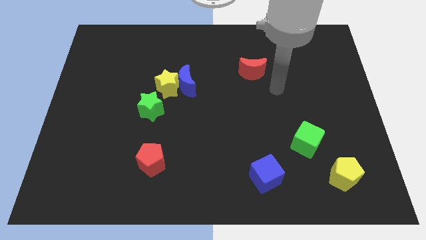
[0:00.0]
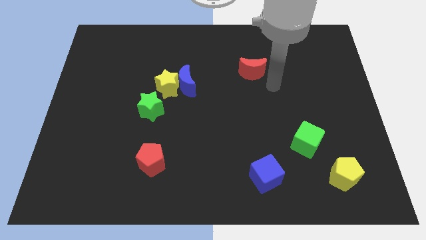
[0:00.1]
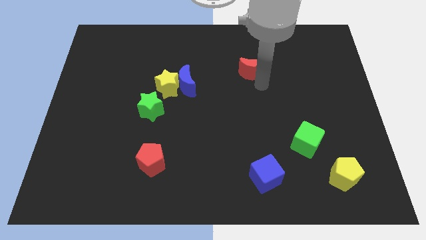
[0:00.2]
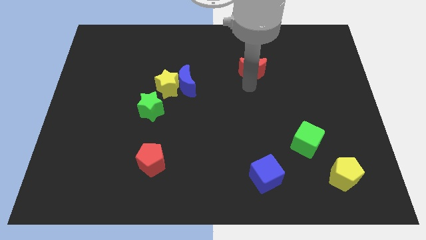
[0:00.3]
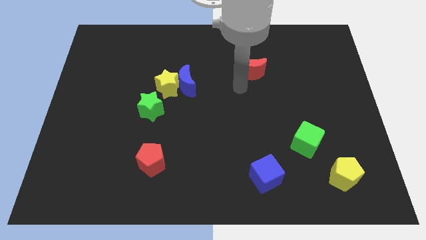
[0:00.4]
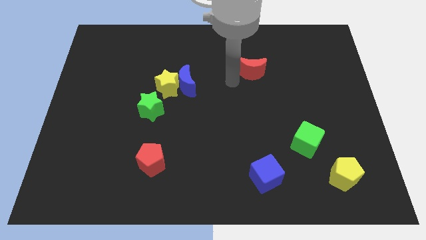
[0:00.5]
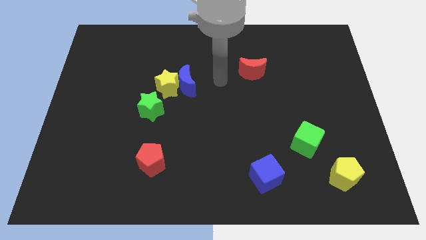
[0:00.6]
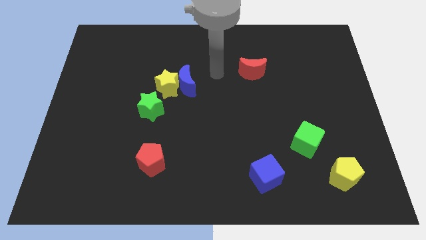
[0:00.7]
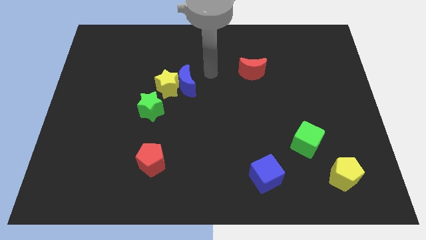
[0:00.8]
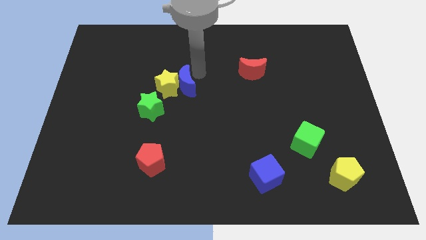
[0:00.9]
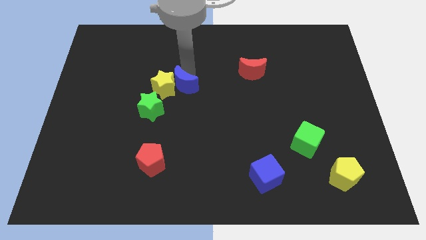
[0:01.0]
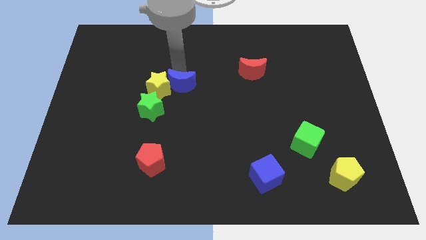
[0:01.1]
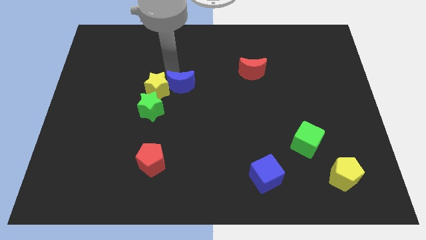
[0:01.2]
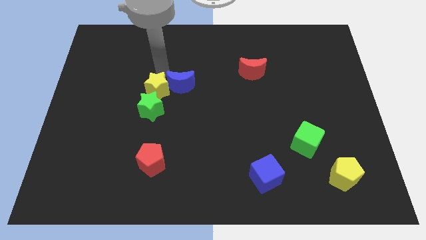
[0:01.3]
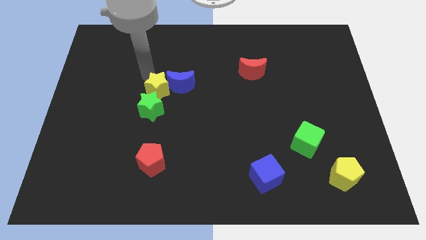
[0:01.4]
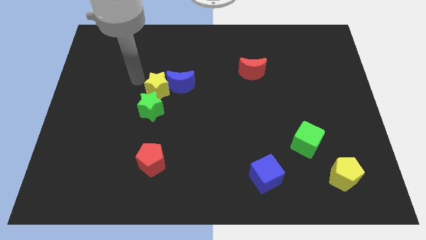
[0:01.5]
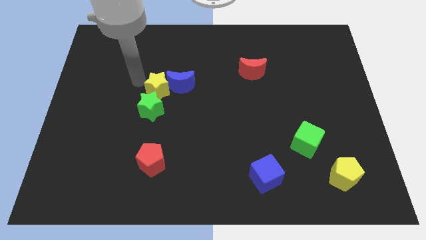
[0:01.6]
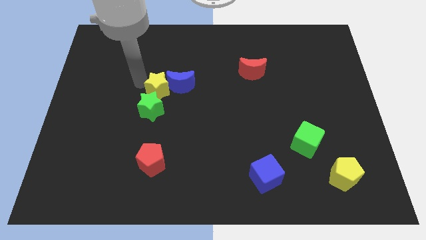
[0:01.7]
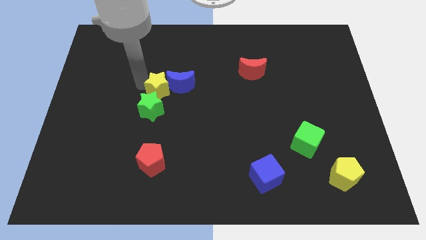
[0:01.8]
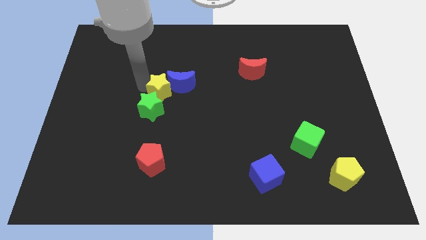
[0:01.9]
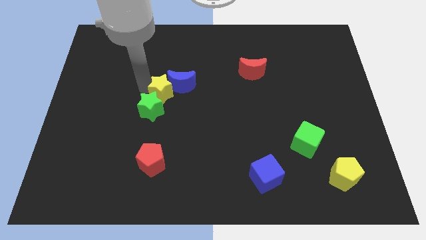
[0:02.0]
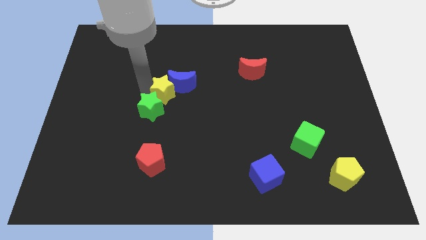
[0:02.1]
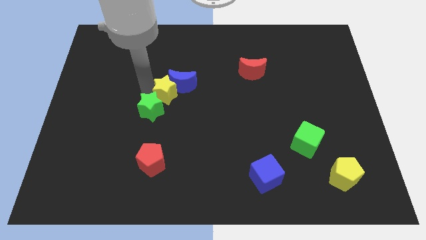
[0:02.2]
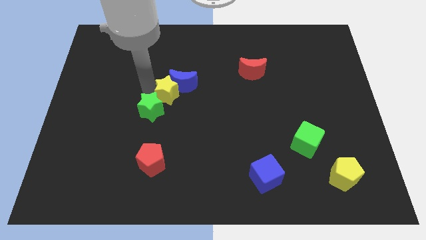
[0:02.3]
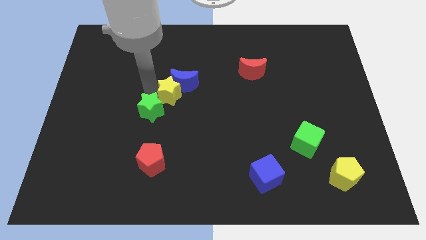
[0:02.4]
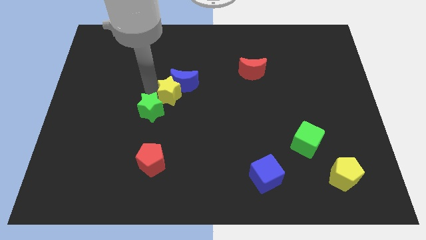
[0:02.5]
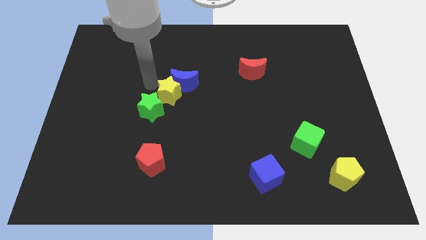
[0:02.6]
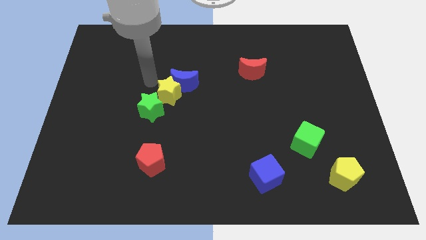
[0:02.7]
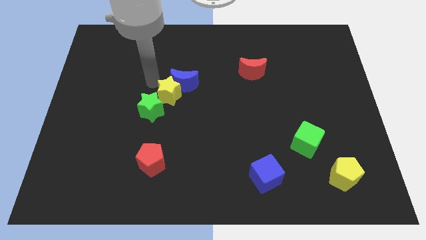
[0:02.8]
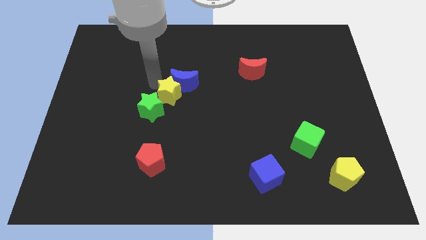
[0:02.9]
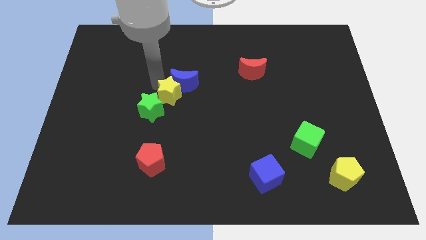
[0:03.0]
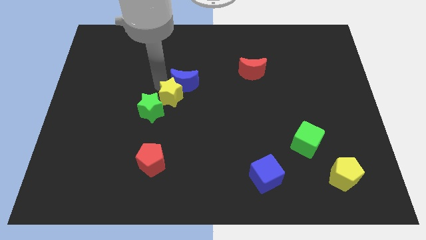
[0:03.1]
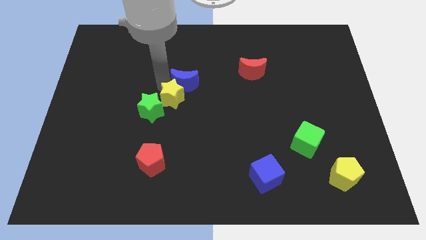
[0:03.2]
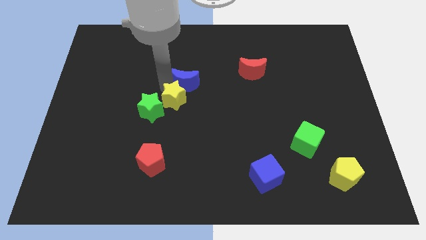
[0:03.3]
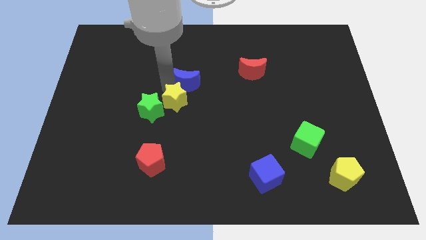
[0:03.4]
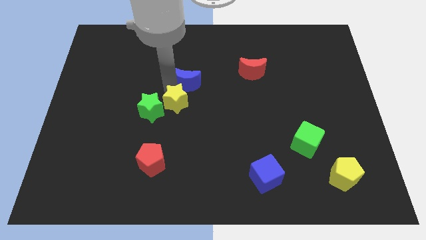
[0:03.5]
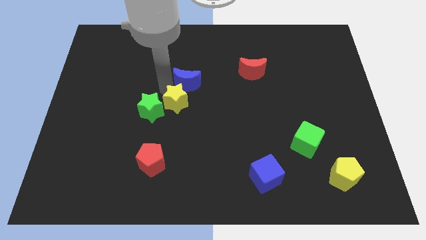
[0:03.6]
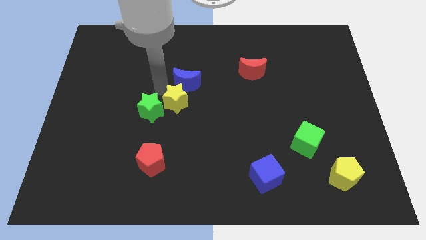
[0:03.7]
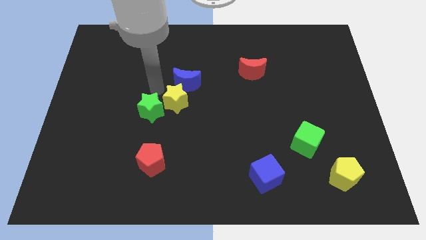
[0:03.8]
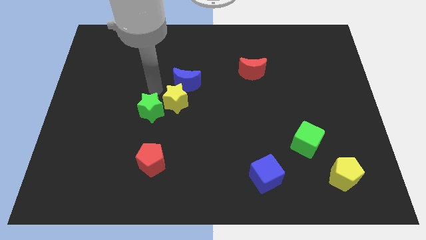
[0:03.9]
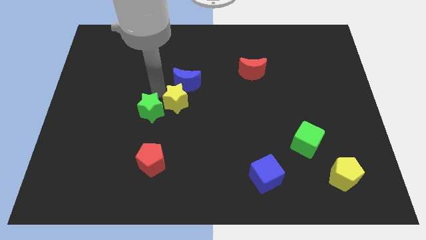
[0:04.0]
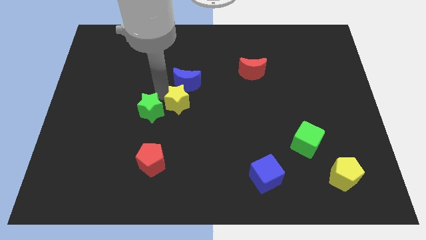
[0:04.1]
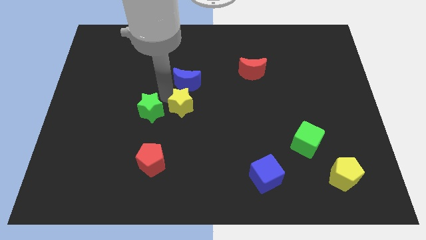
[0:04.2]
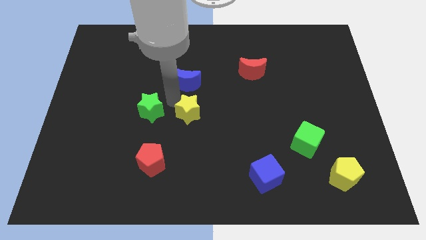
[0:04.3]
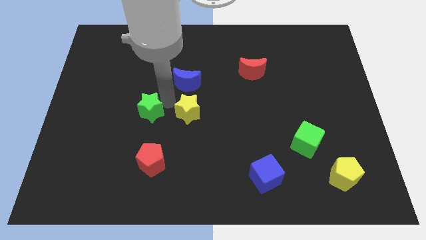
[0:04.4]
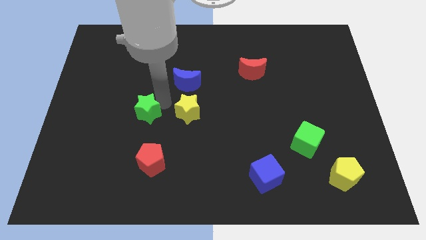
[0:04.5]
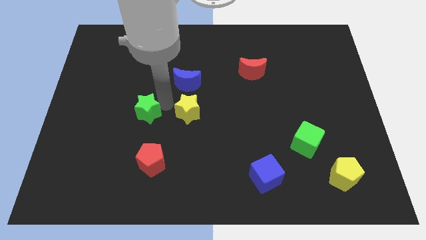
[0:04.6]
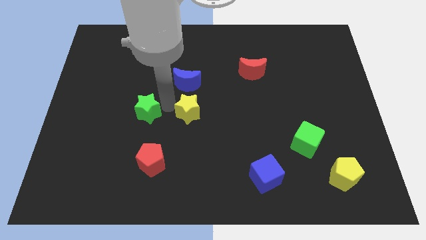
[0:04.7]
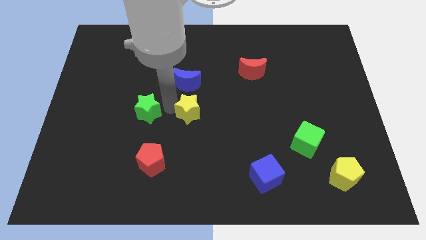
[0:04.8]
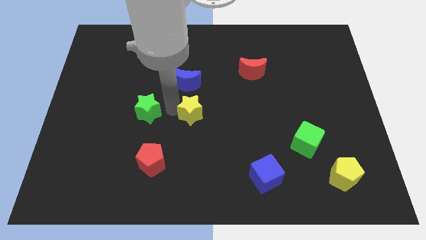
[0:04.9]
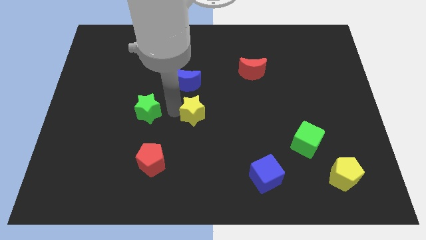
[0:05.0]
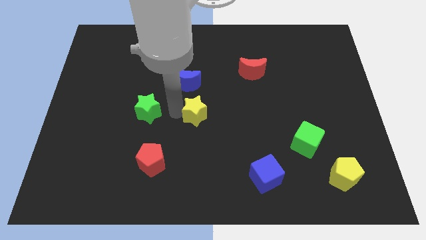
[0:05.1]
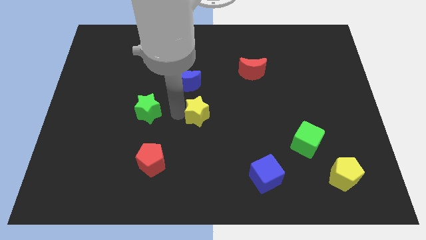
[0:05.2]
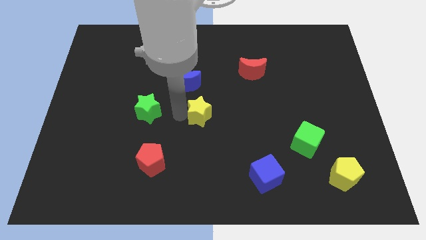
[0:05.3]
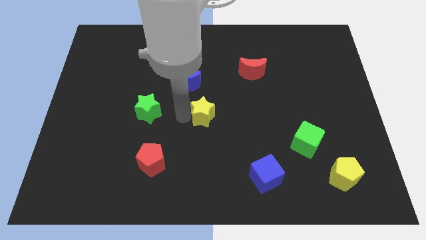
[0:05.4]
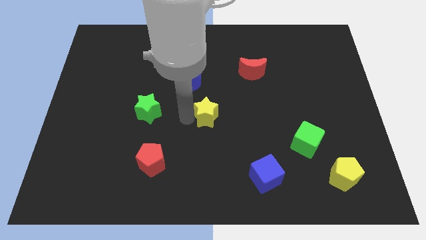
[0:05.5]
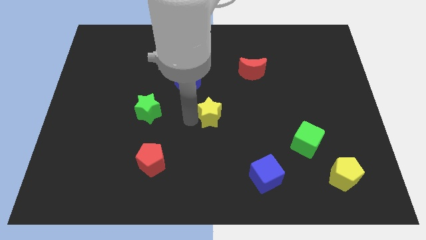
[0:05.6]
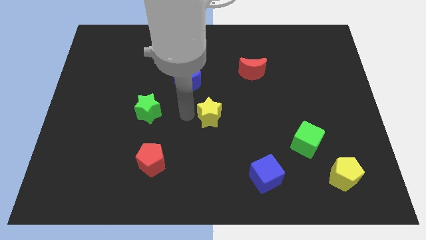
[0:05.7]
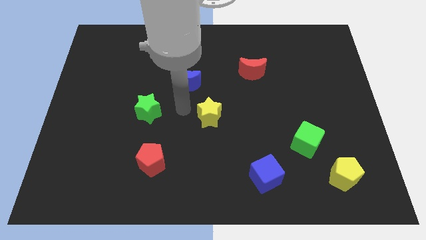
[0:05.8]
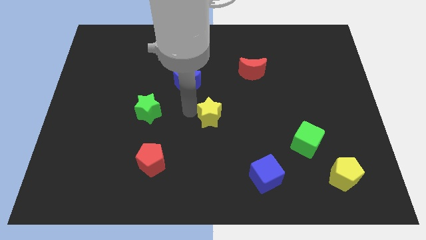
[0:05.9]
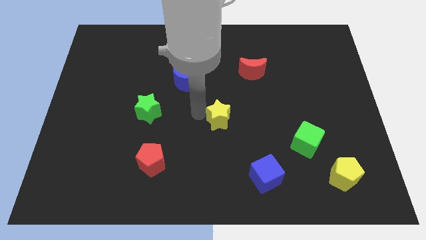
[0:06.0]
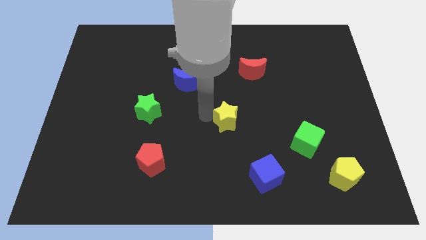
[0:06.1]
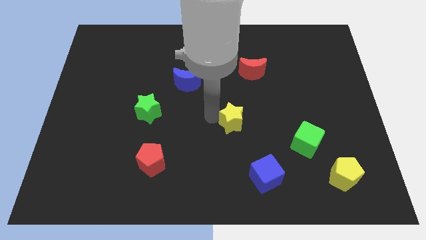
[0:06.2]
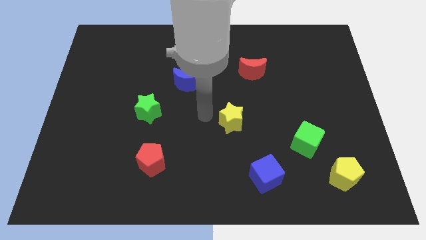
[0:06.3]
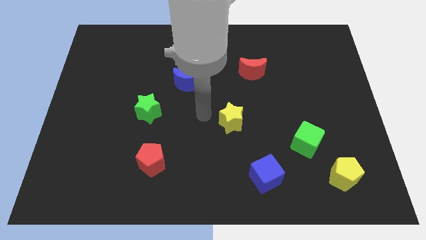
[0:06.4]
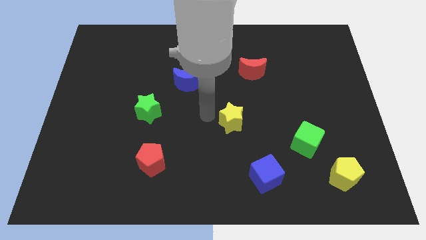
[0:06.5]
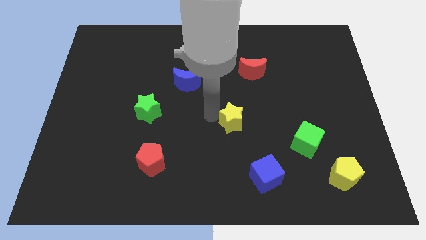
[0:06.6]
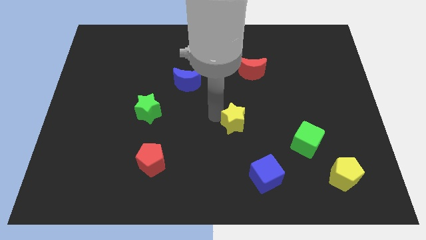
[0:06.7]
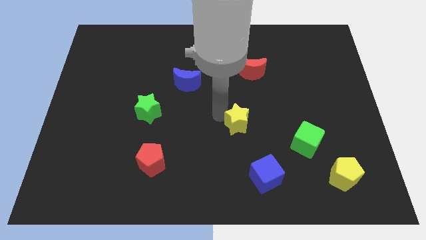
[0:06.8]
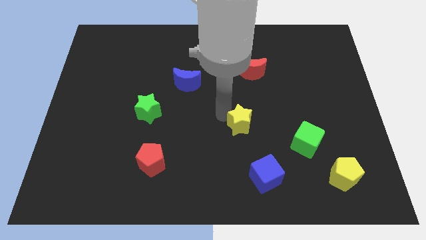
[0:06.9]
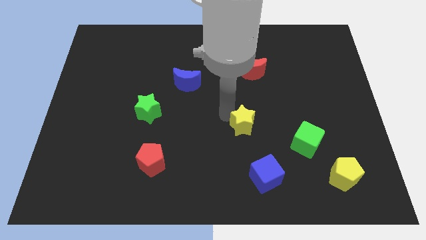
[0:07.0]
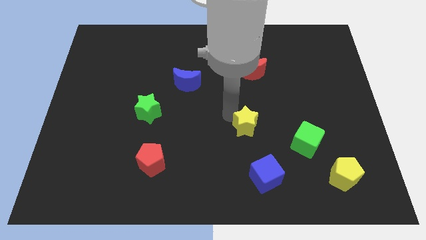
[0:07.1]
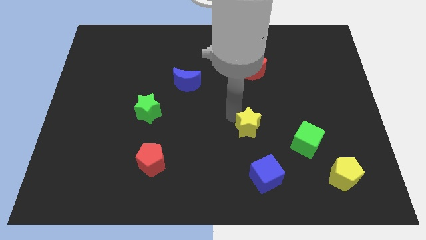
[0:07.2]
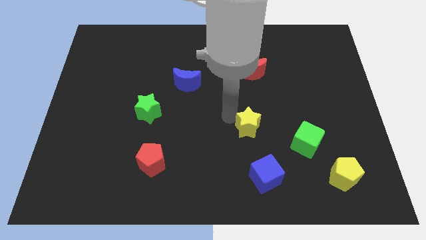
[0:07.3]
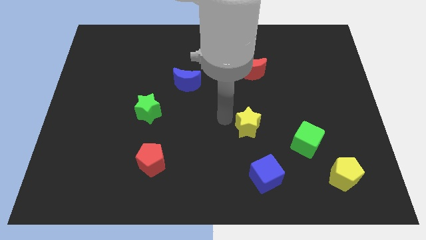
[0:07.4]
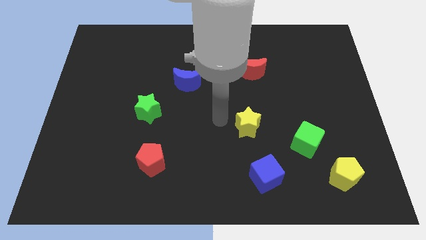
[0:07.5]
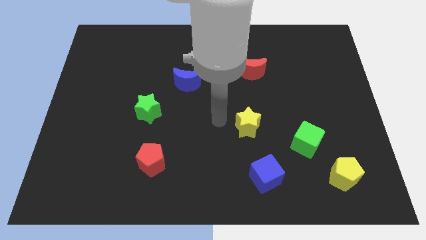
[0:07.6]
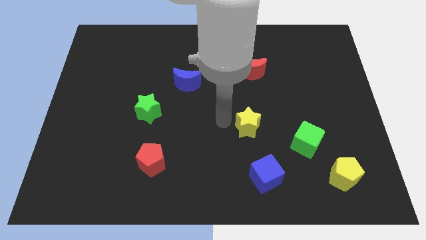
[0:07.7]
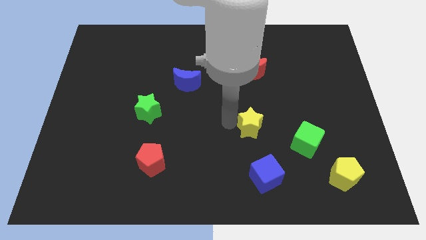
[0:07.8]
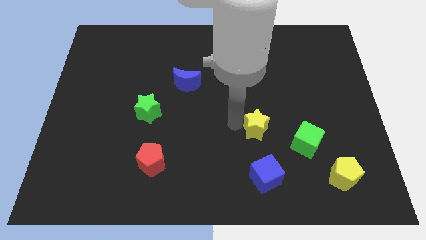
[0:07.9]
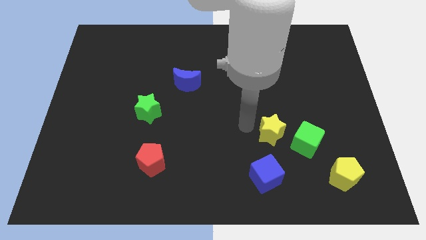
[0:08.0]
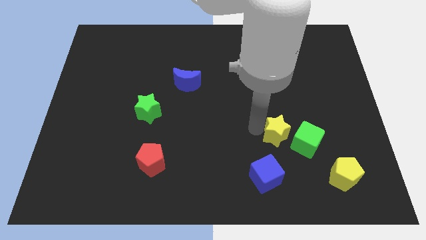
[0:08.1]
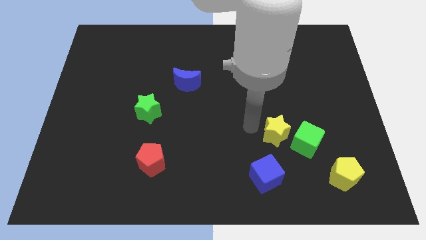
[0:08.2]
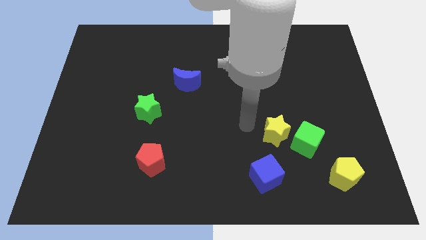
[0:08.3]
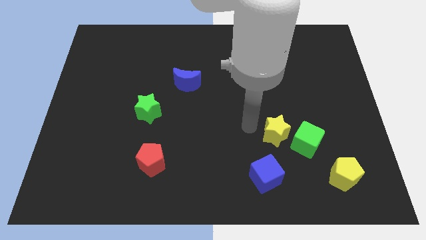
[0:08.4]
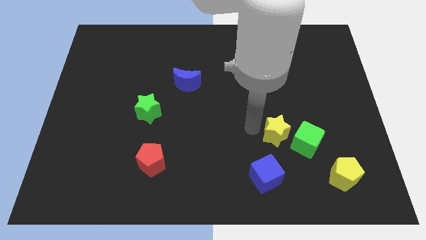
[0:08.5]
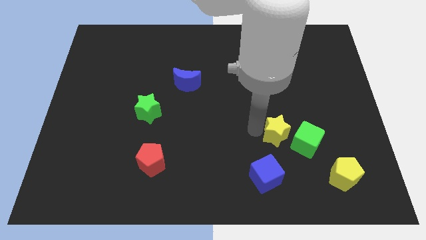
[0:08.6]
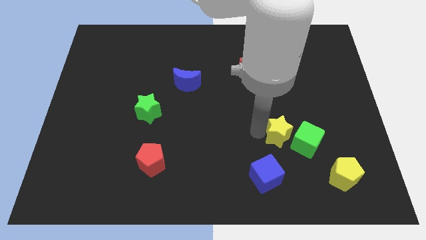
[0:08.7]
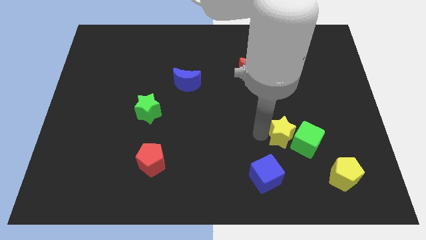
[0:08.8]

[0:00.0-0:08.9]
move the yellow star next to the green cube
